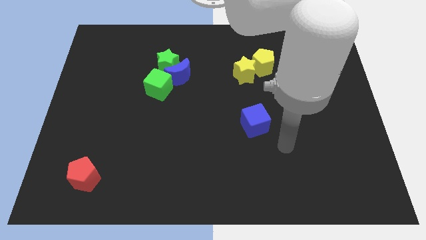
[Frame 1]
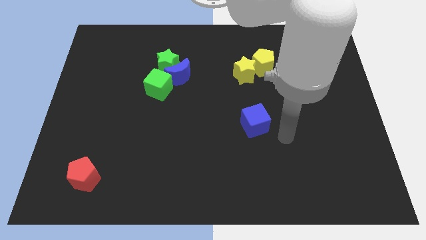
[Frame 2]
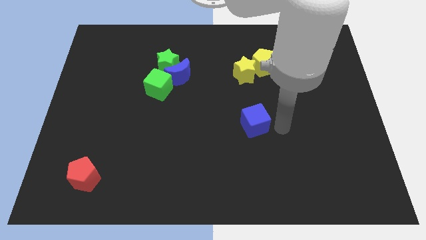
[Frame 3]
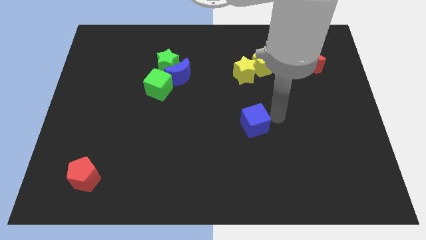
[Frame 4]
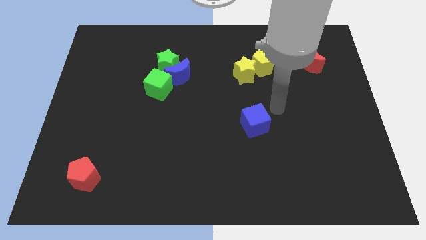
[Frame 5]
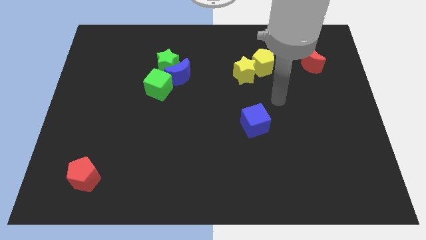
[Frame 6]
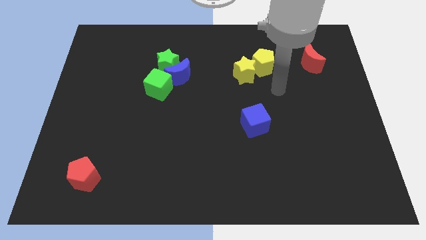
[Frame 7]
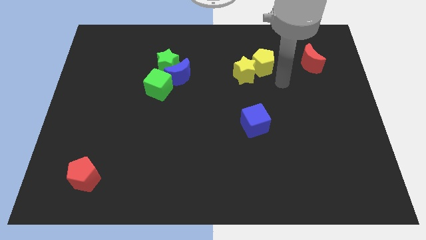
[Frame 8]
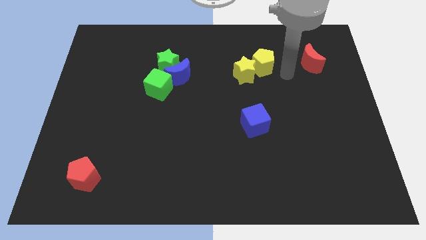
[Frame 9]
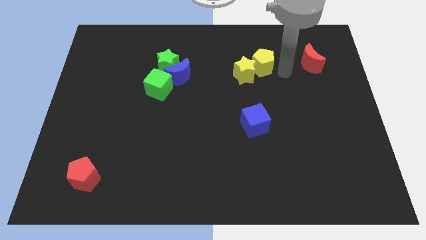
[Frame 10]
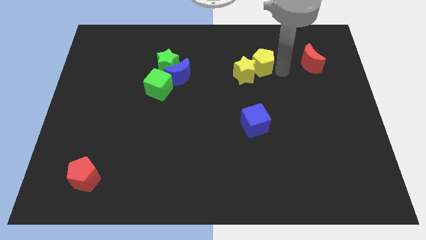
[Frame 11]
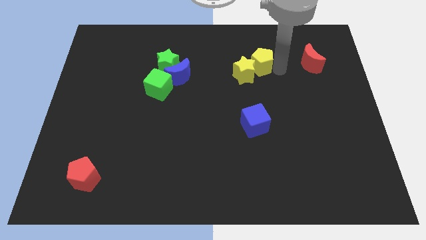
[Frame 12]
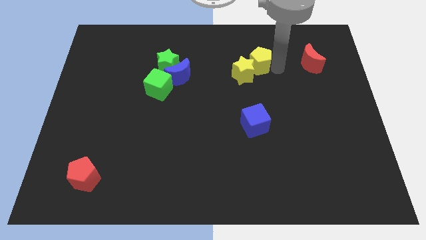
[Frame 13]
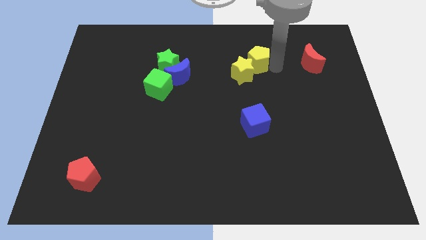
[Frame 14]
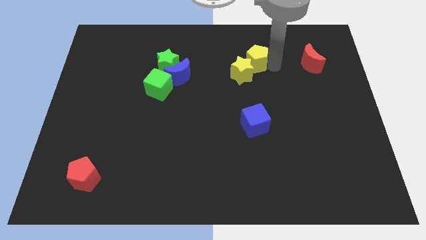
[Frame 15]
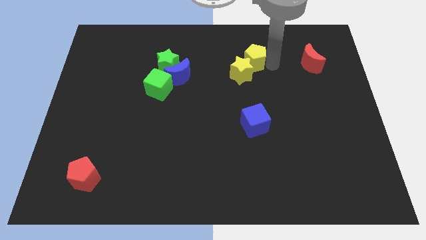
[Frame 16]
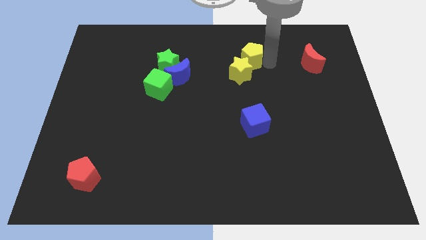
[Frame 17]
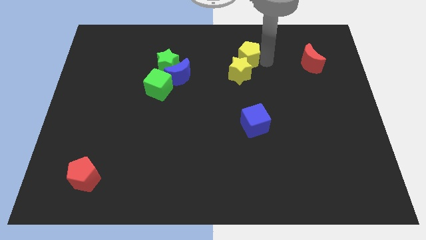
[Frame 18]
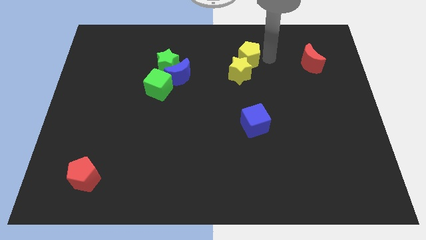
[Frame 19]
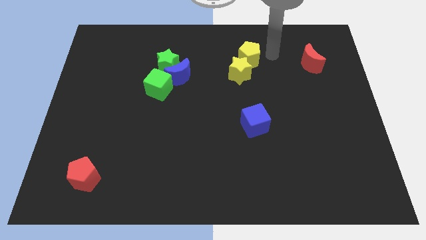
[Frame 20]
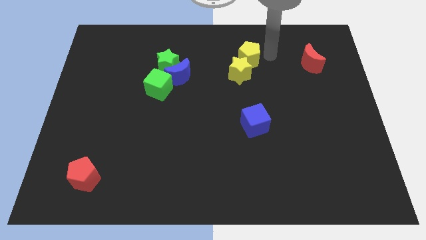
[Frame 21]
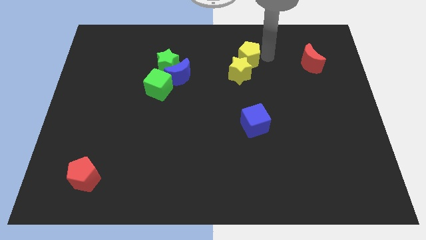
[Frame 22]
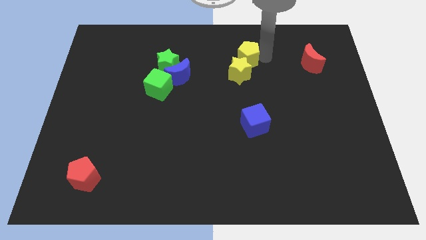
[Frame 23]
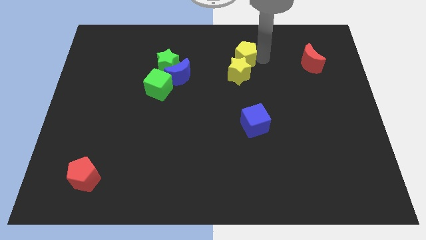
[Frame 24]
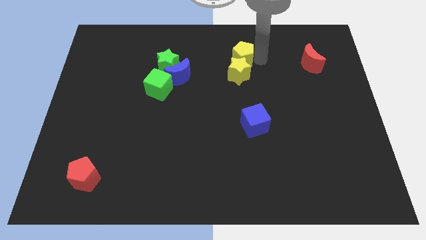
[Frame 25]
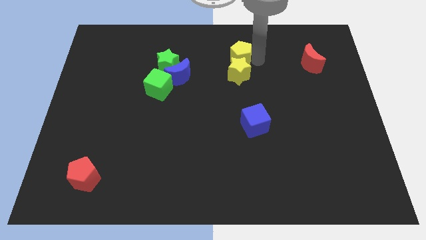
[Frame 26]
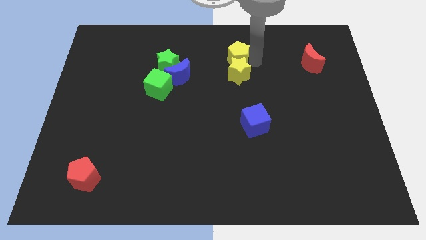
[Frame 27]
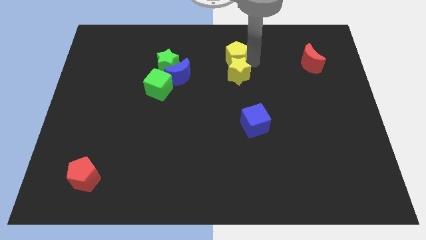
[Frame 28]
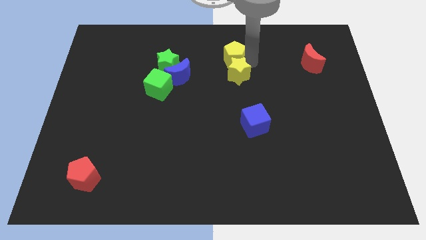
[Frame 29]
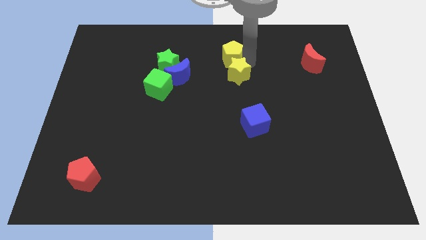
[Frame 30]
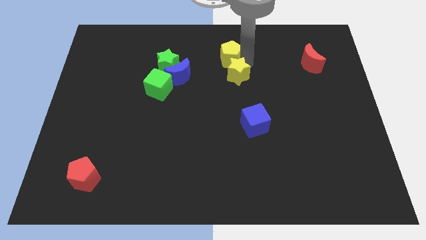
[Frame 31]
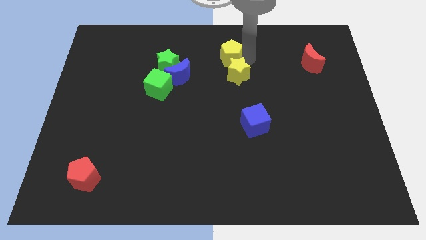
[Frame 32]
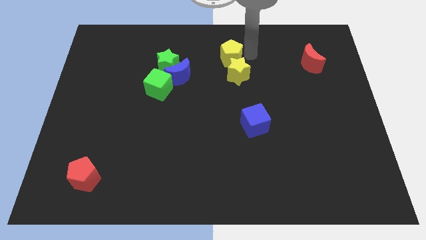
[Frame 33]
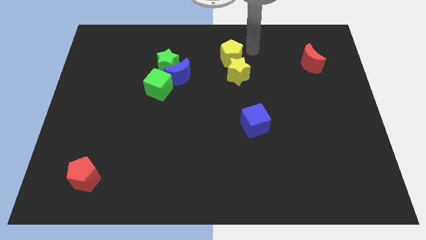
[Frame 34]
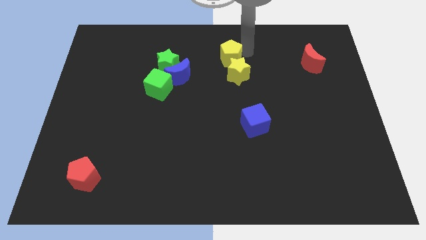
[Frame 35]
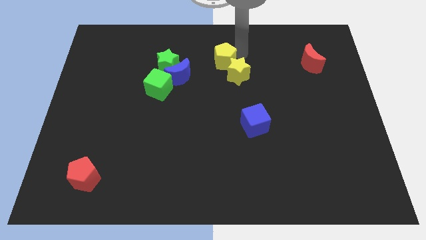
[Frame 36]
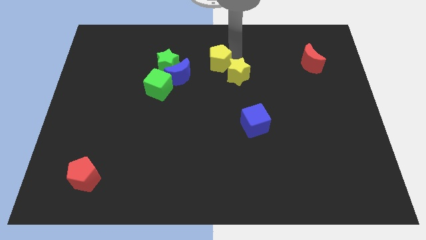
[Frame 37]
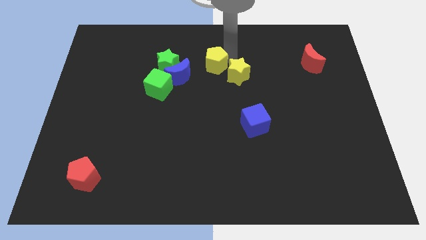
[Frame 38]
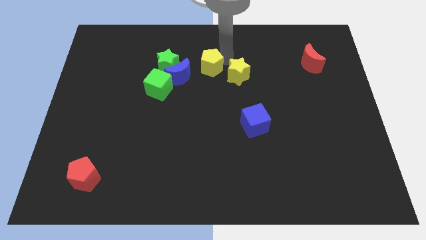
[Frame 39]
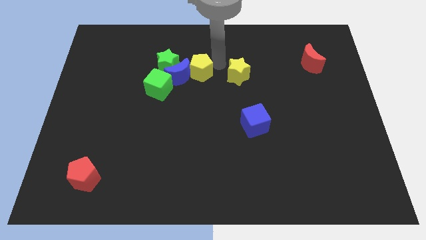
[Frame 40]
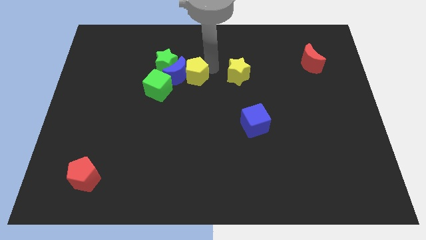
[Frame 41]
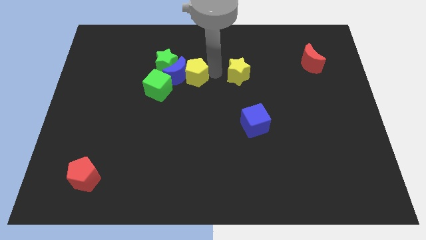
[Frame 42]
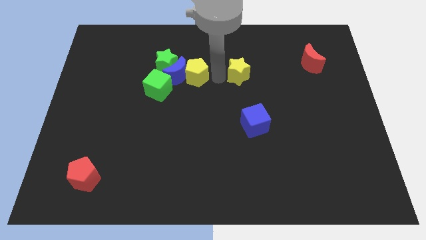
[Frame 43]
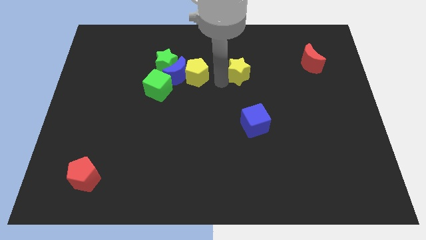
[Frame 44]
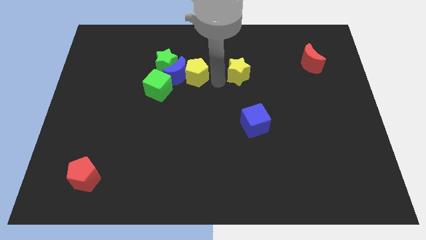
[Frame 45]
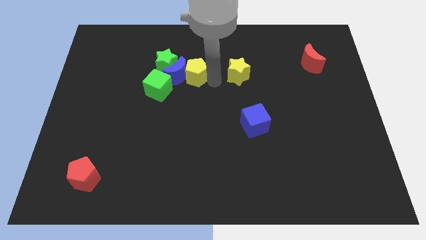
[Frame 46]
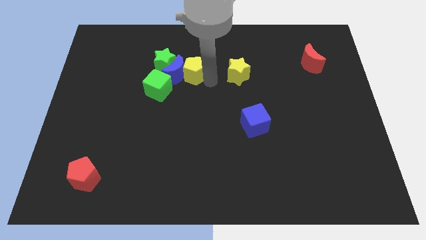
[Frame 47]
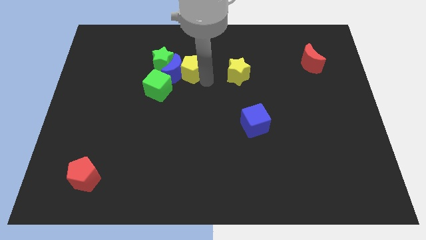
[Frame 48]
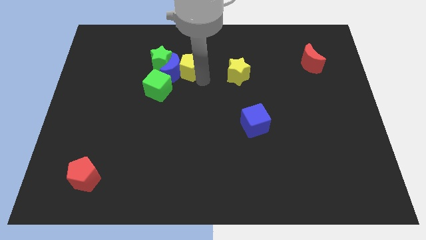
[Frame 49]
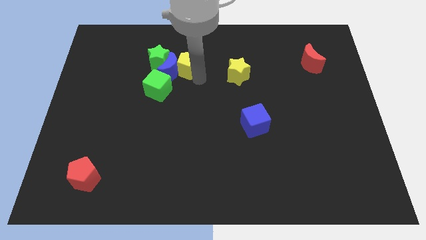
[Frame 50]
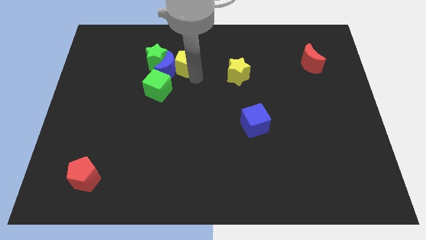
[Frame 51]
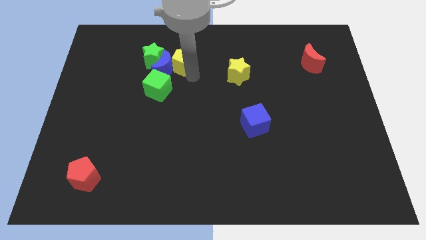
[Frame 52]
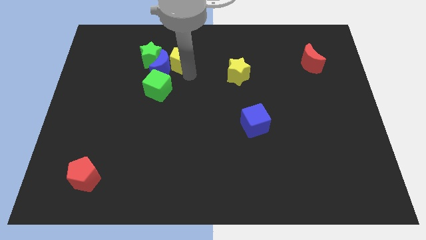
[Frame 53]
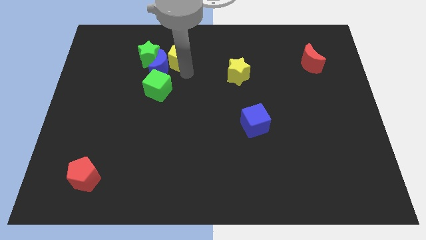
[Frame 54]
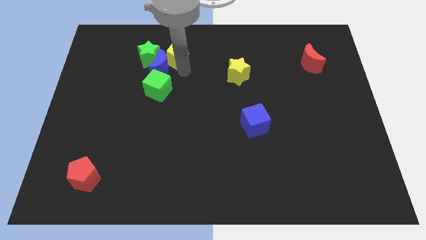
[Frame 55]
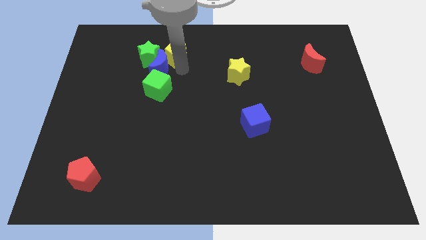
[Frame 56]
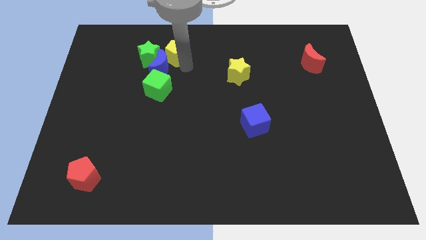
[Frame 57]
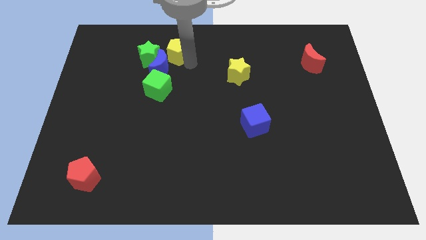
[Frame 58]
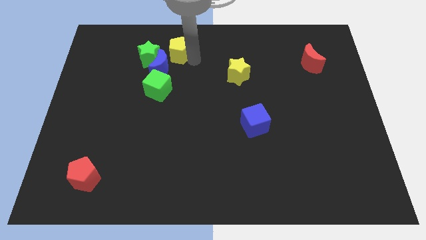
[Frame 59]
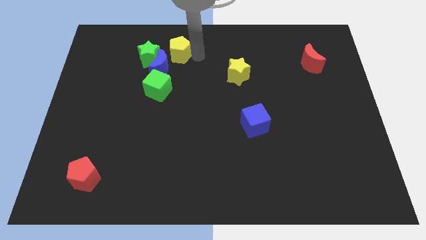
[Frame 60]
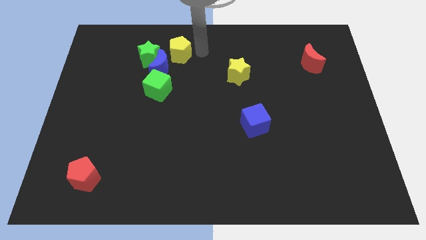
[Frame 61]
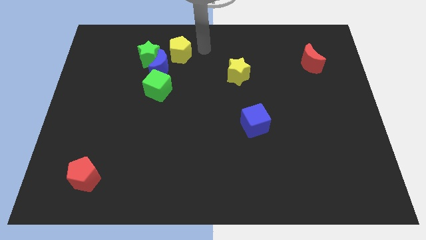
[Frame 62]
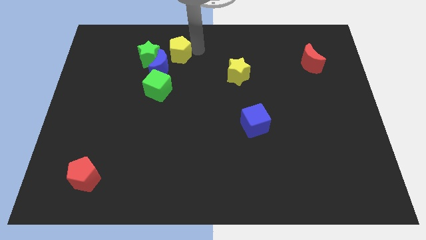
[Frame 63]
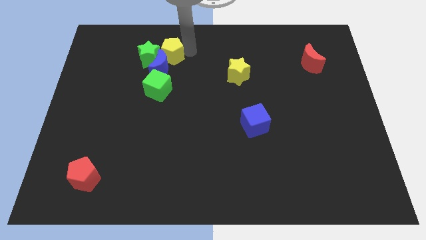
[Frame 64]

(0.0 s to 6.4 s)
push the yellow pentagon towards the green star

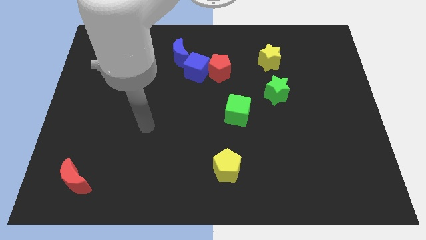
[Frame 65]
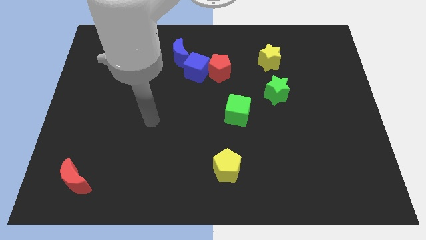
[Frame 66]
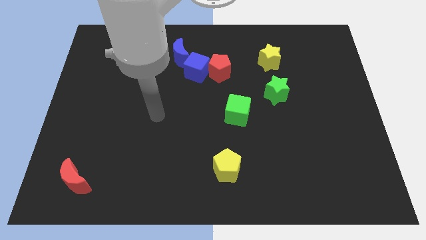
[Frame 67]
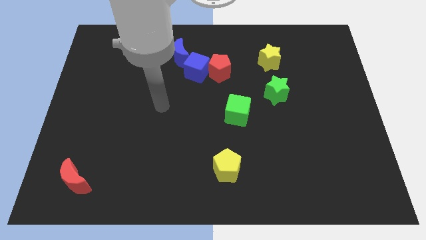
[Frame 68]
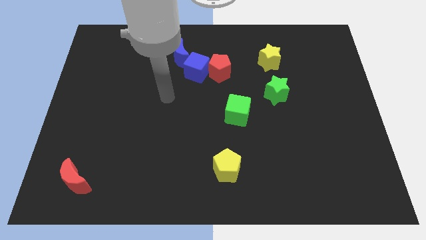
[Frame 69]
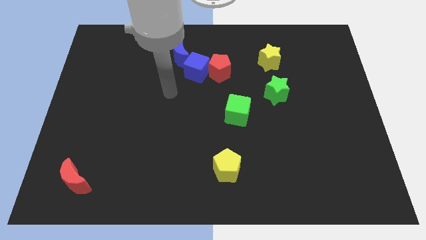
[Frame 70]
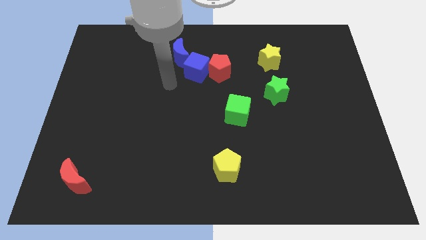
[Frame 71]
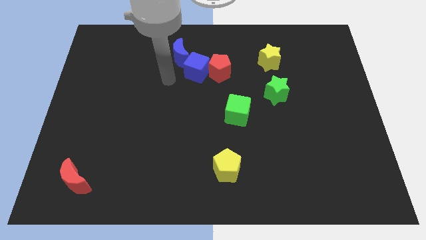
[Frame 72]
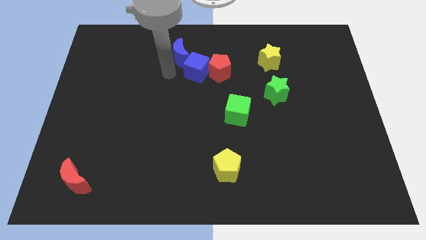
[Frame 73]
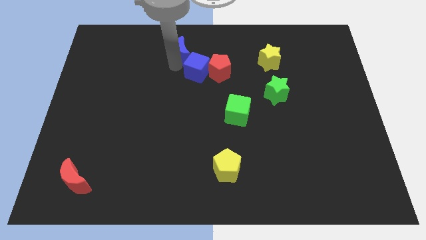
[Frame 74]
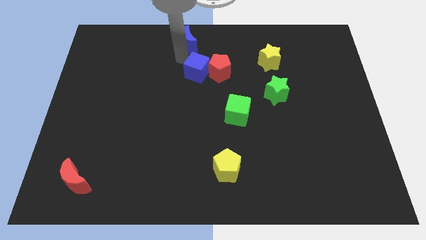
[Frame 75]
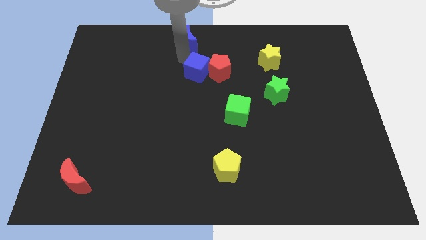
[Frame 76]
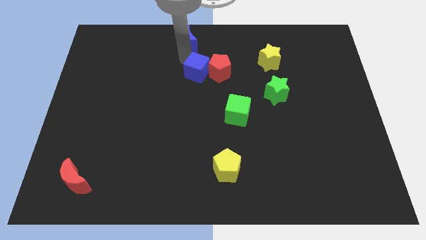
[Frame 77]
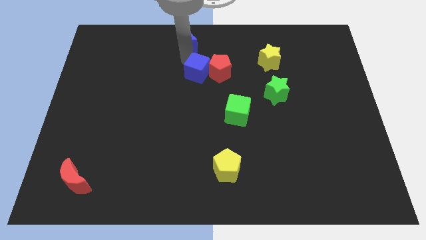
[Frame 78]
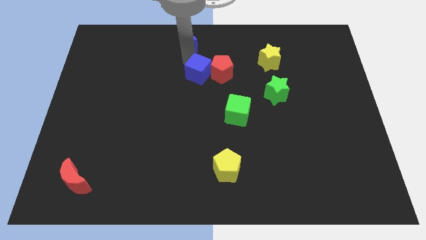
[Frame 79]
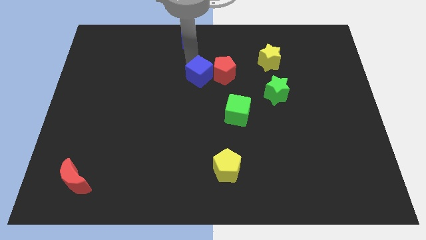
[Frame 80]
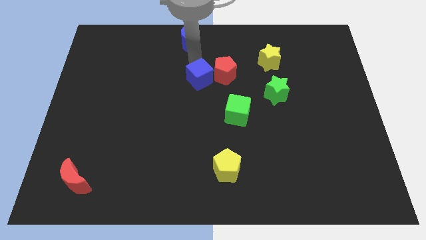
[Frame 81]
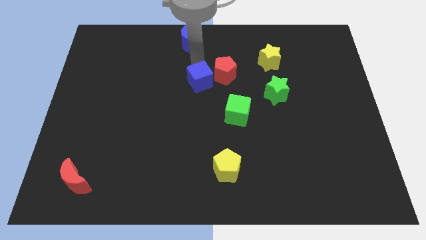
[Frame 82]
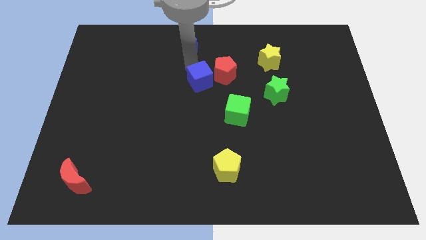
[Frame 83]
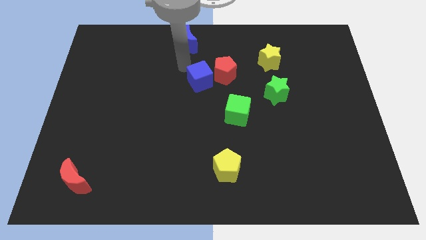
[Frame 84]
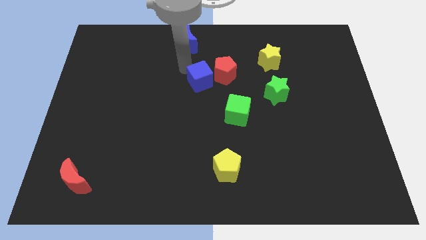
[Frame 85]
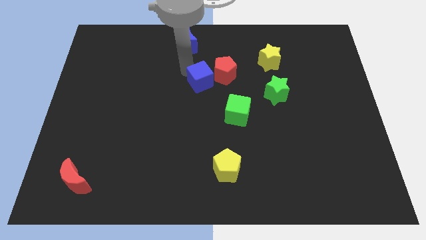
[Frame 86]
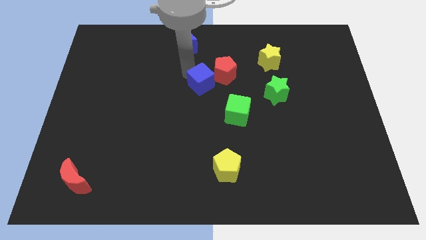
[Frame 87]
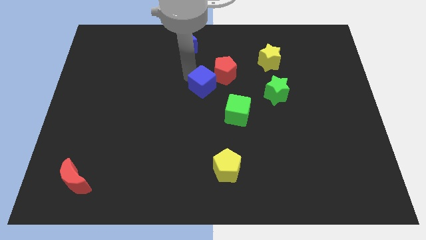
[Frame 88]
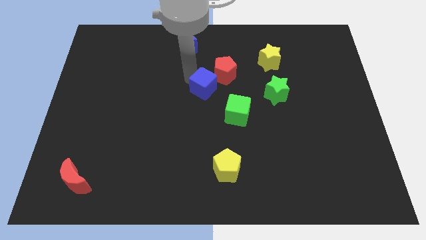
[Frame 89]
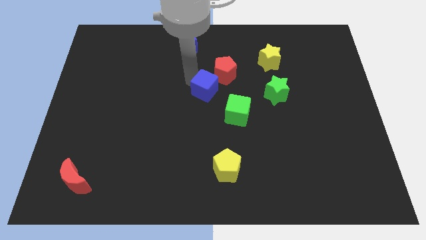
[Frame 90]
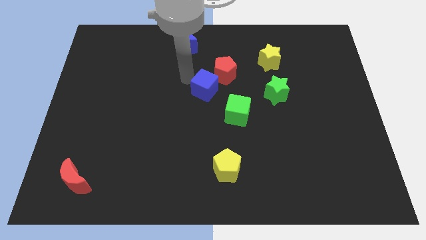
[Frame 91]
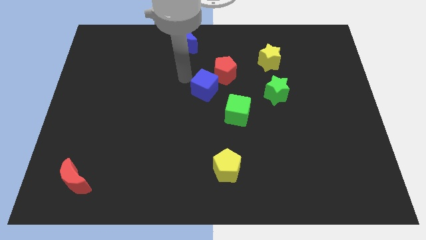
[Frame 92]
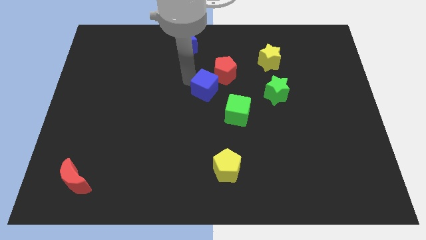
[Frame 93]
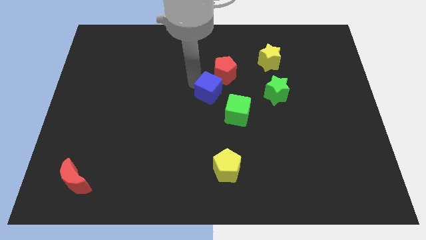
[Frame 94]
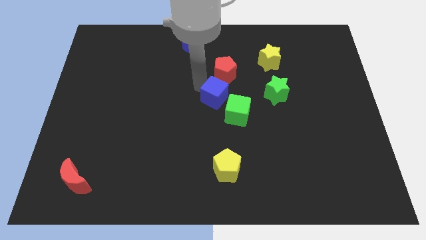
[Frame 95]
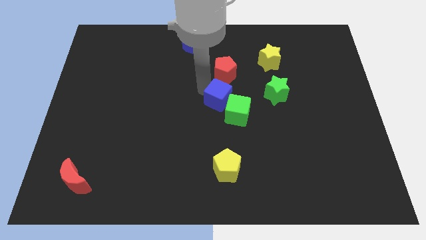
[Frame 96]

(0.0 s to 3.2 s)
push the blue cube towards the green cube
